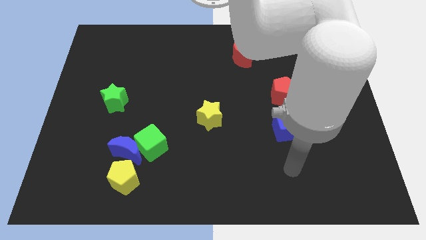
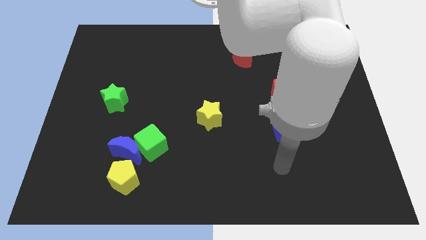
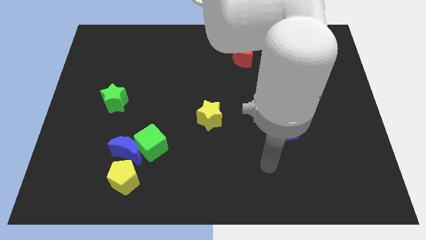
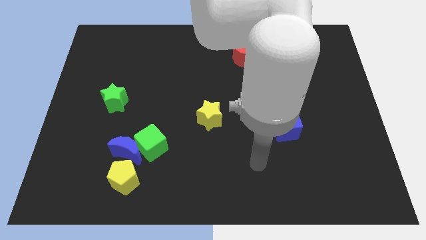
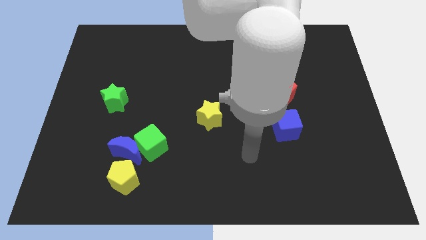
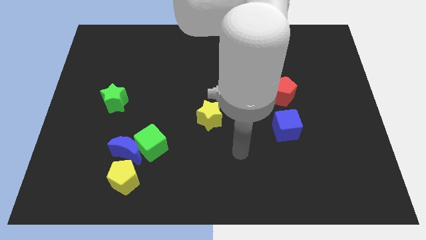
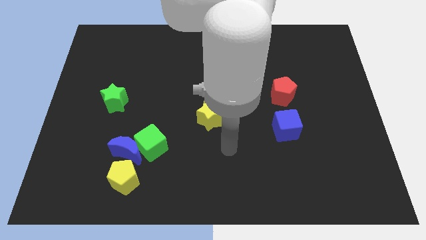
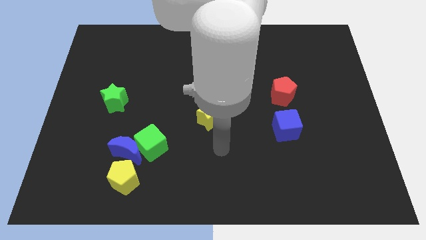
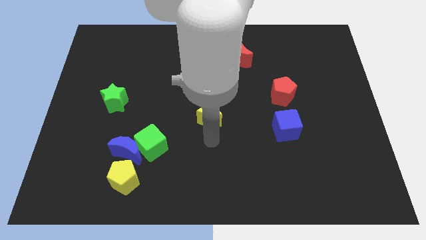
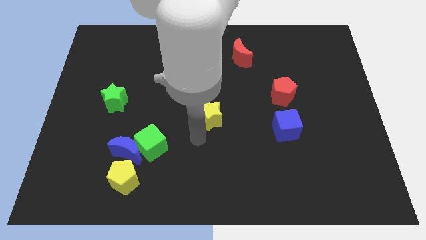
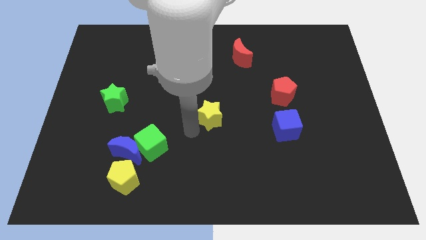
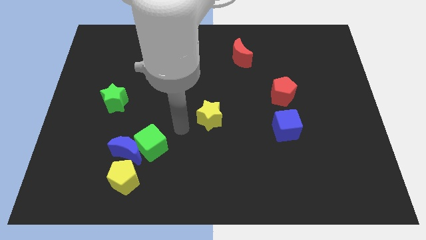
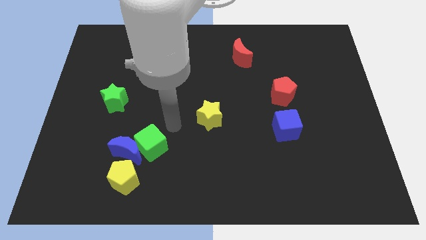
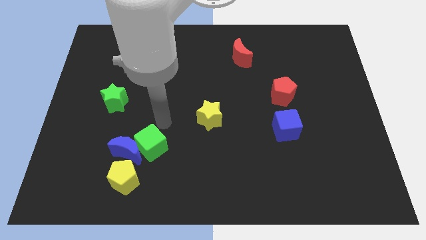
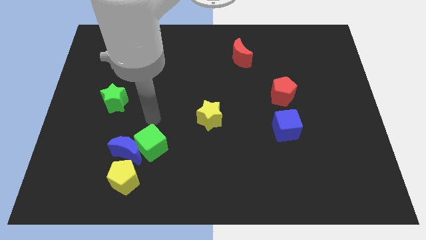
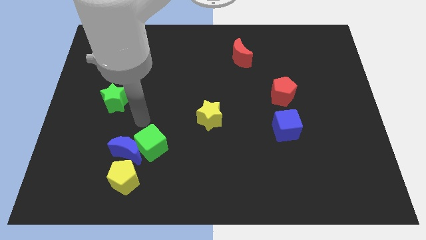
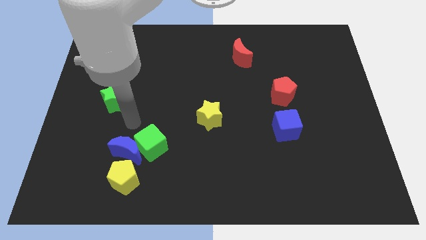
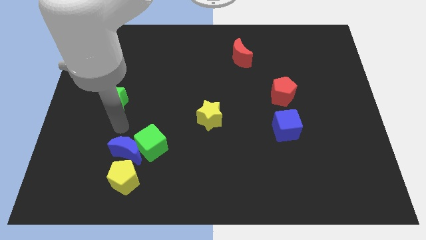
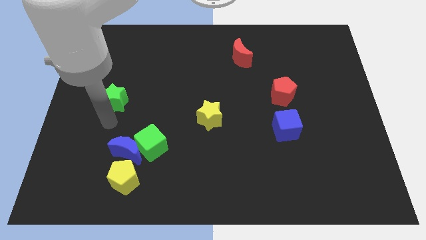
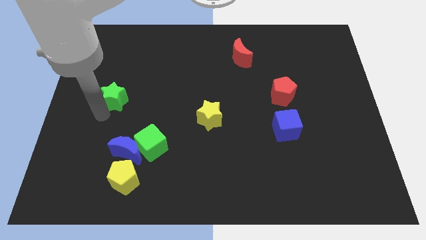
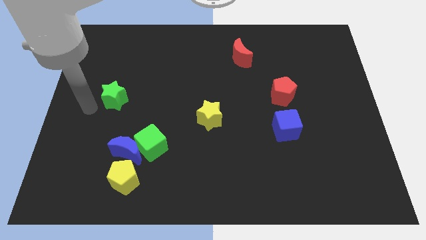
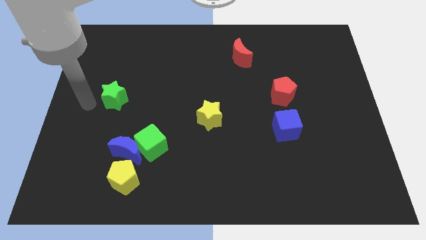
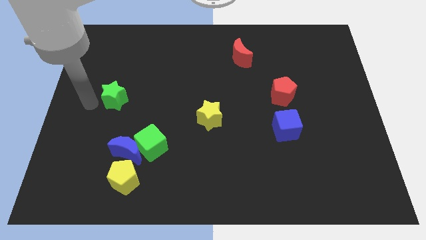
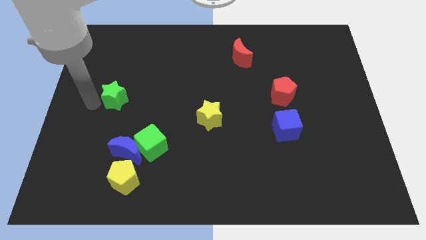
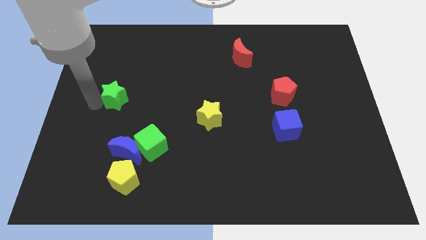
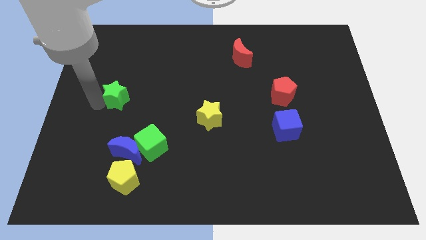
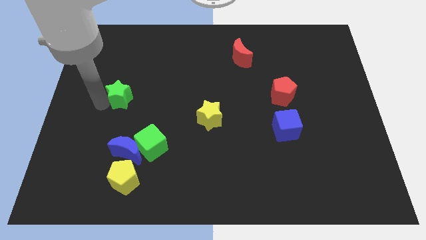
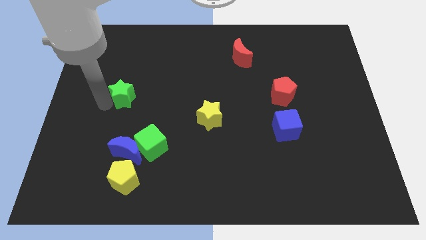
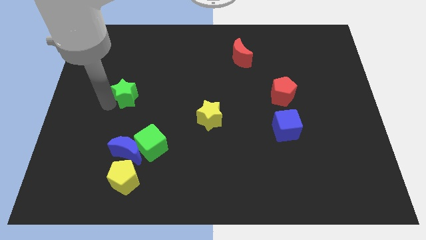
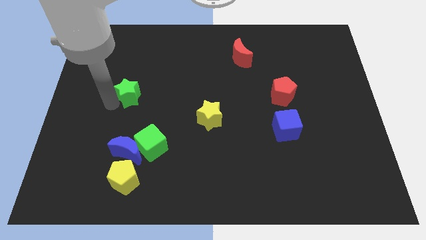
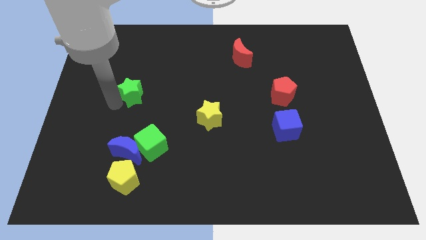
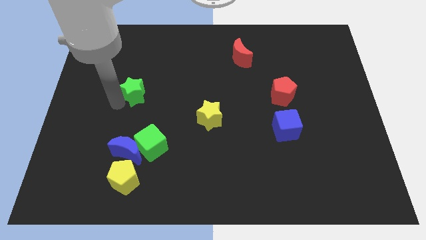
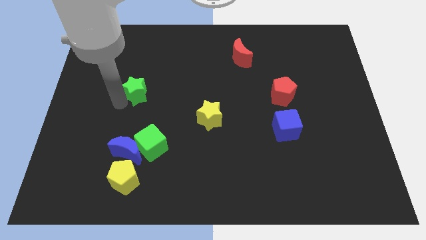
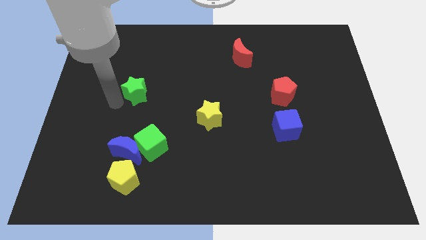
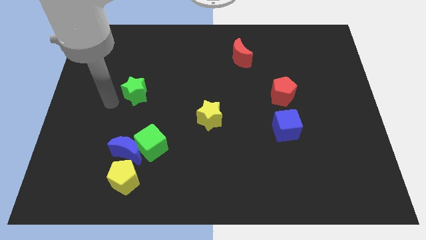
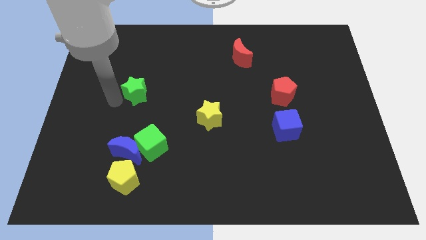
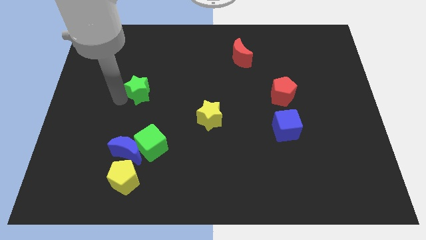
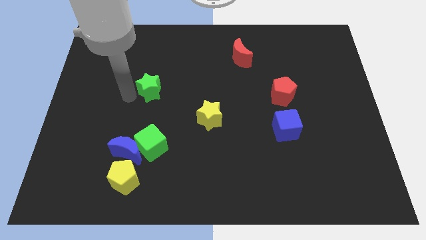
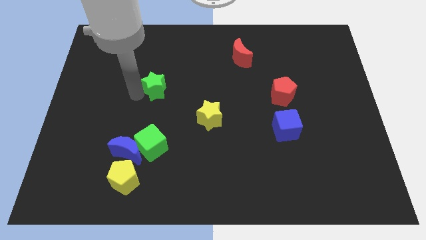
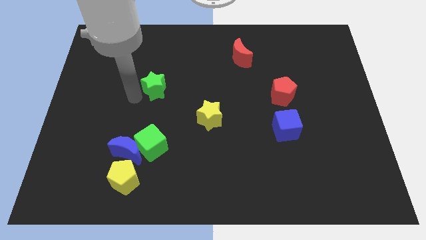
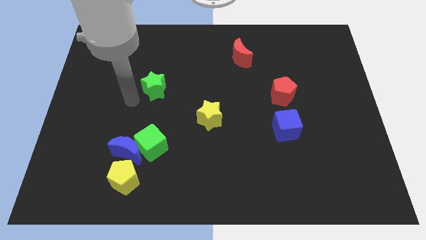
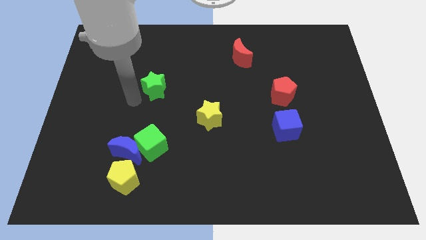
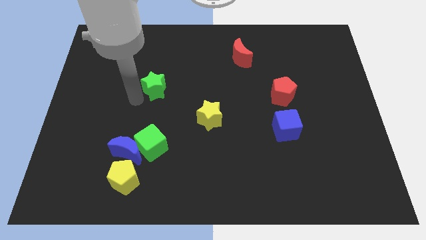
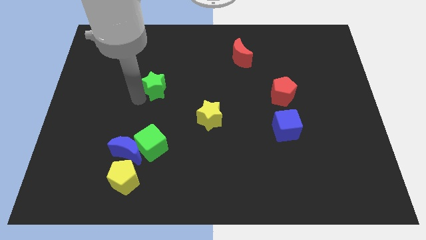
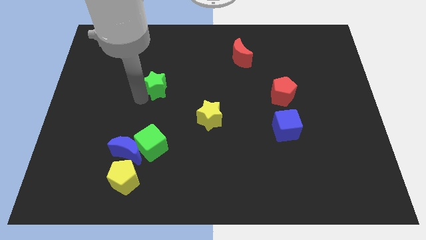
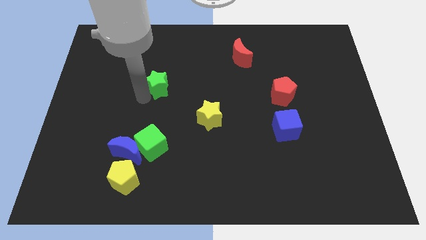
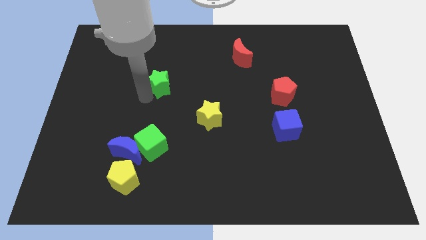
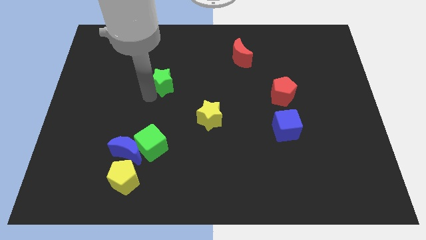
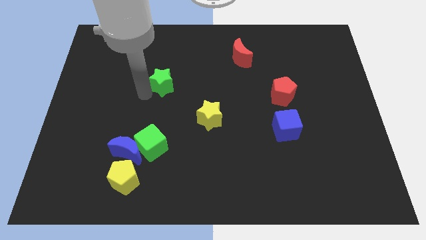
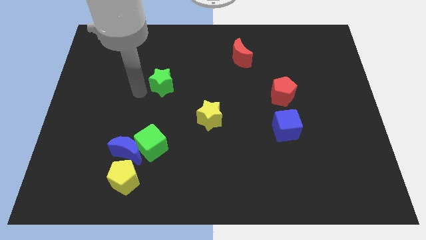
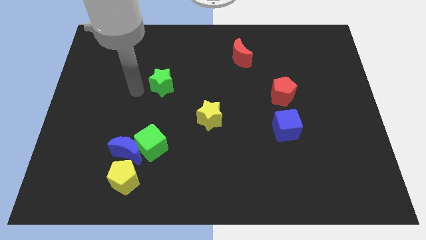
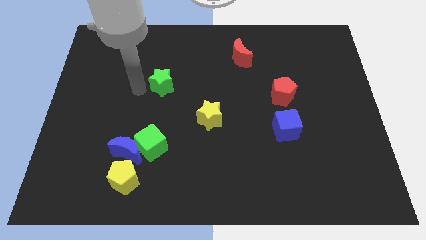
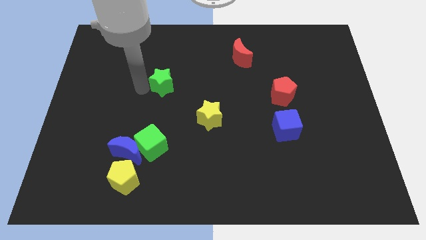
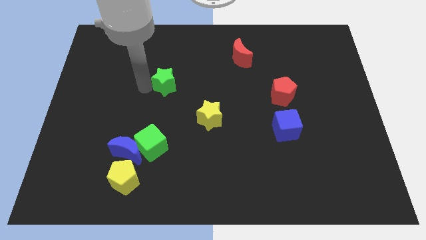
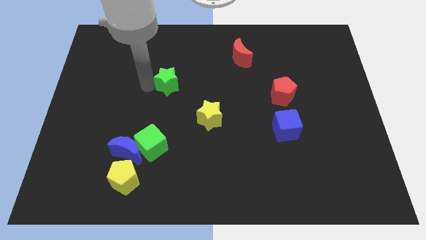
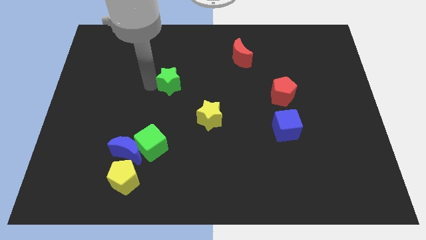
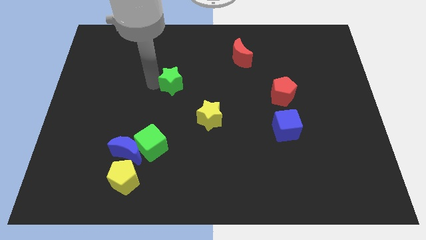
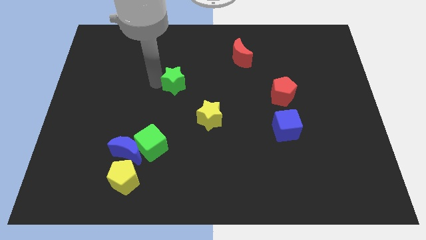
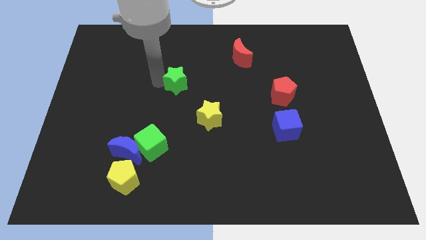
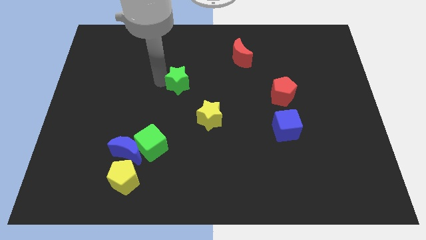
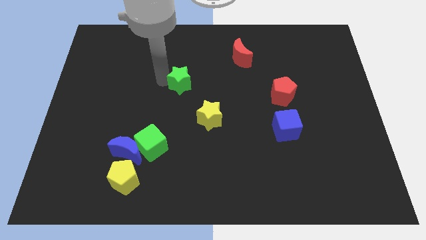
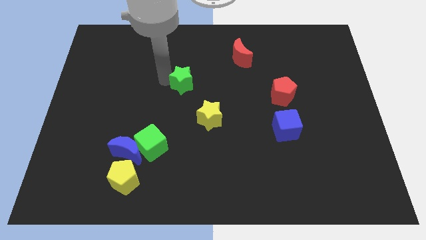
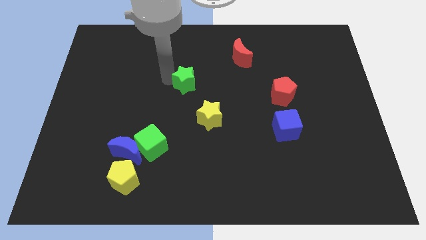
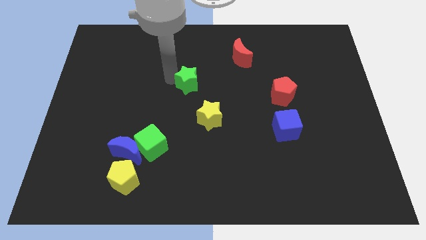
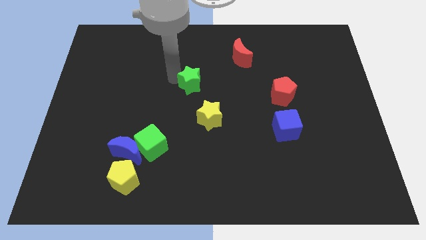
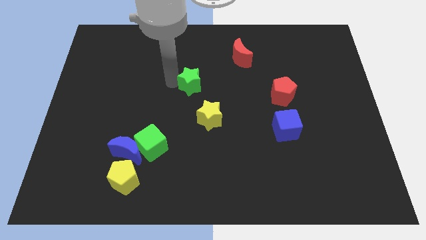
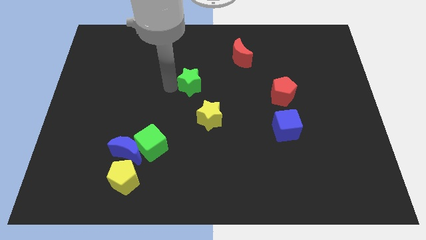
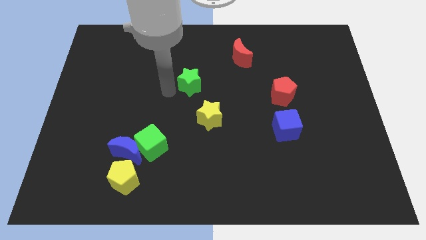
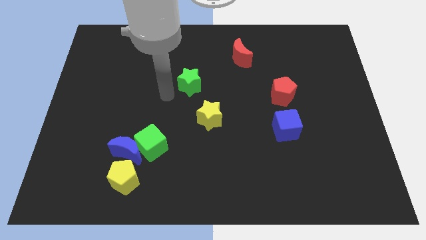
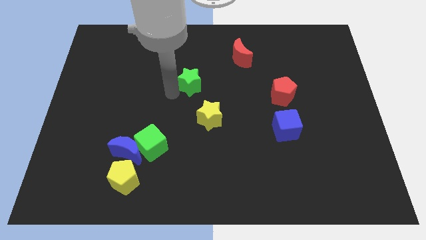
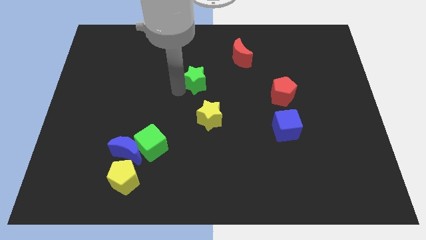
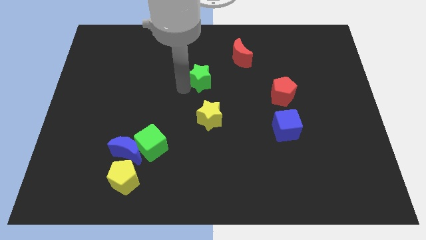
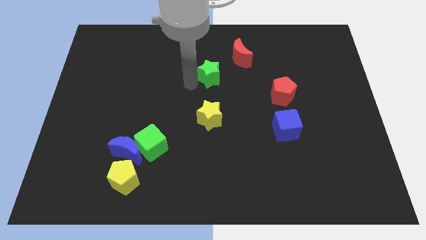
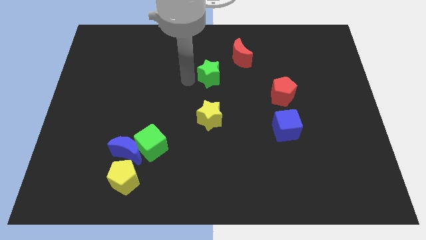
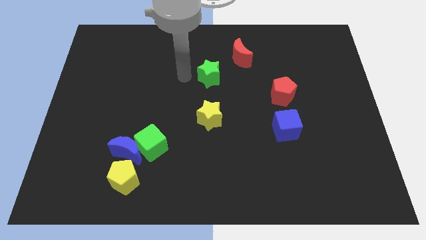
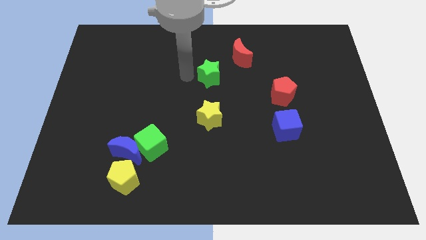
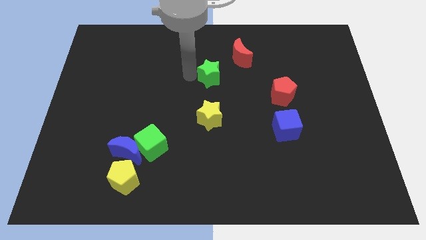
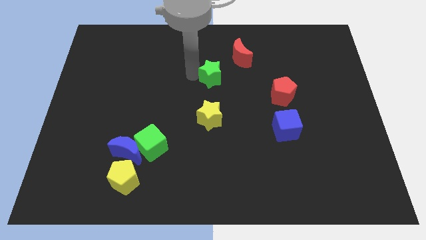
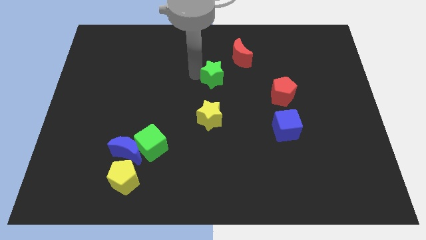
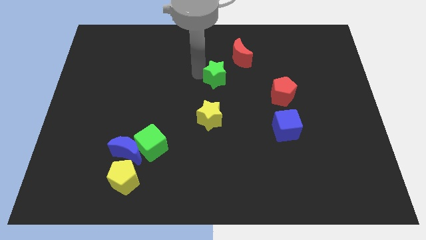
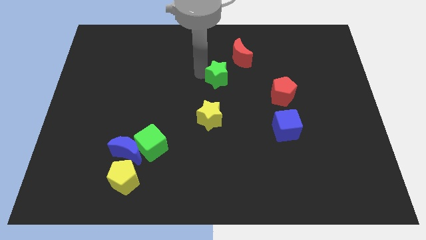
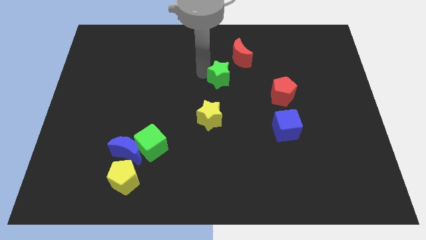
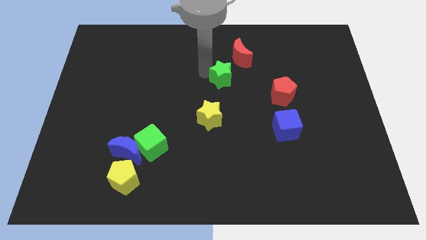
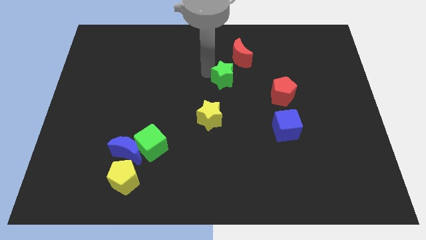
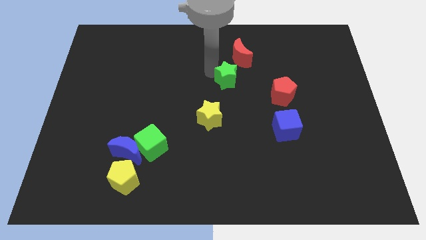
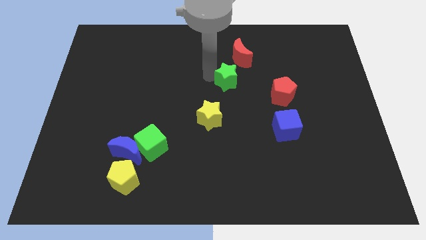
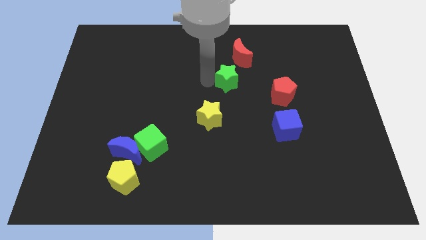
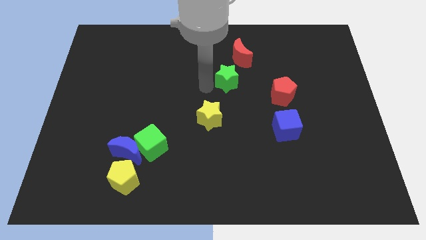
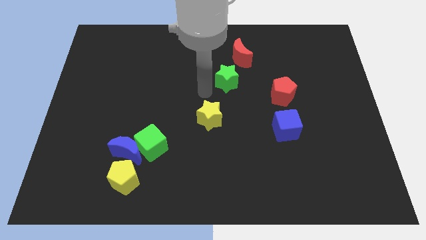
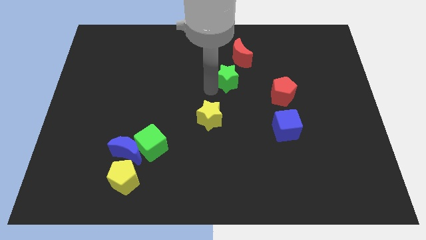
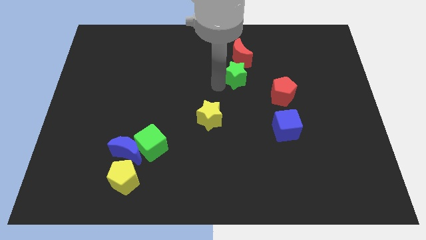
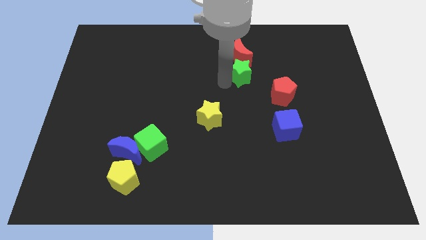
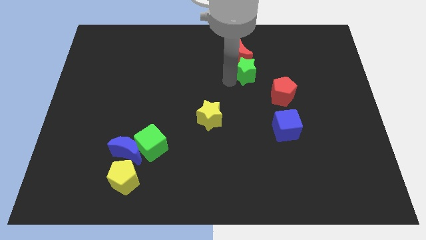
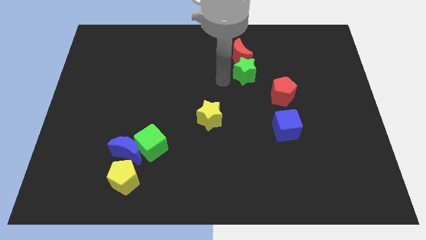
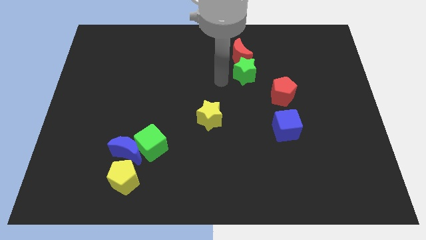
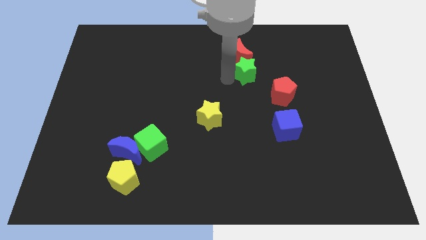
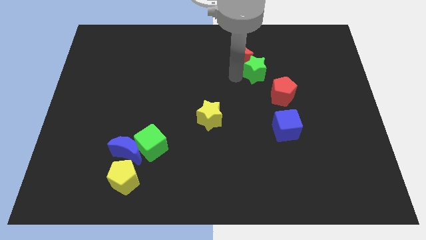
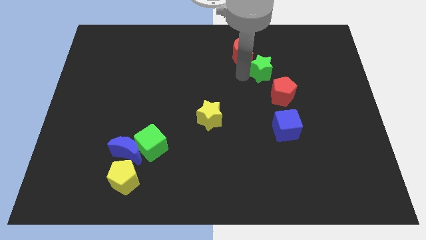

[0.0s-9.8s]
slide the green star to the top of the red pentagon
